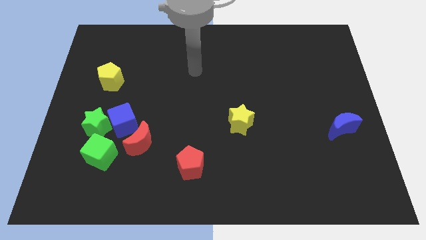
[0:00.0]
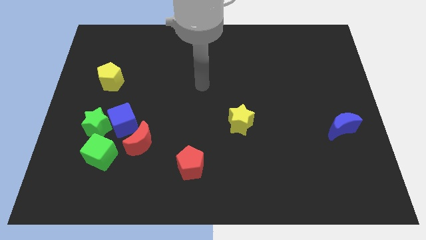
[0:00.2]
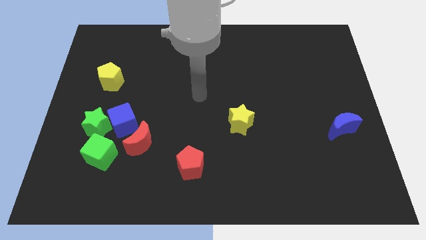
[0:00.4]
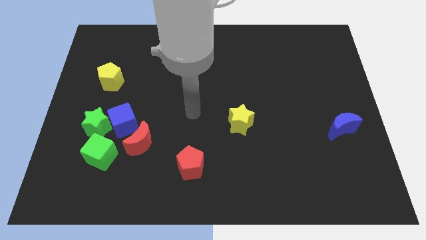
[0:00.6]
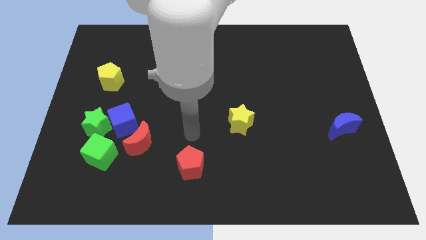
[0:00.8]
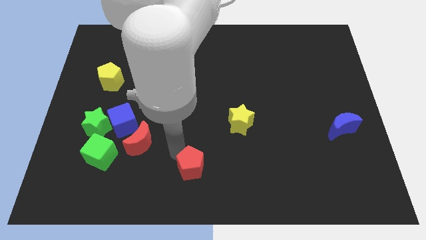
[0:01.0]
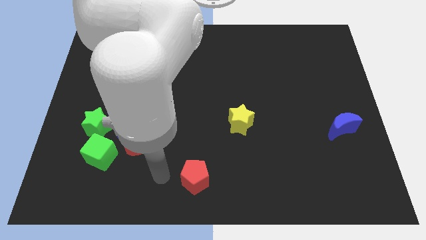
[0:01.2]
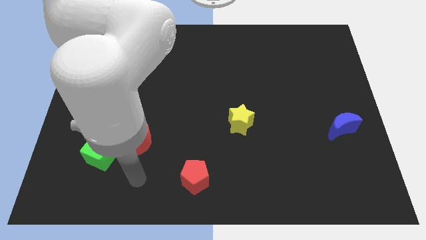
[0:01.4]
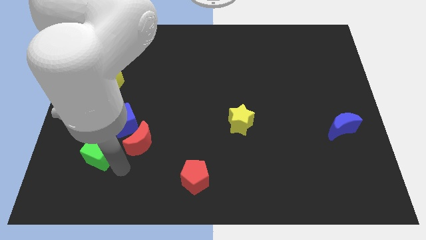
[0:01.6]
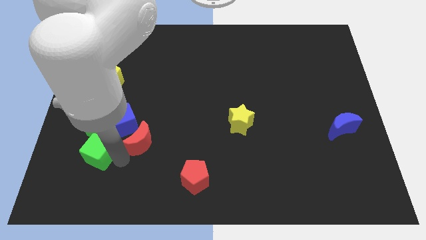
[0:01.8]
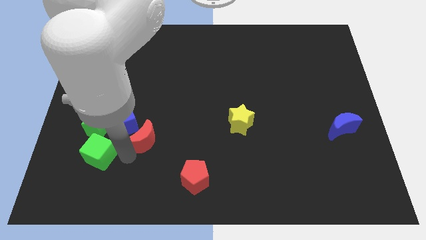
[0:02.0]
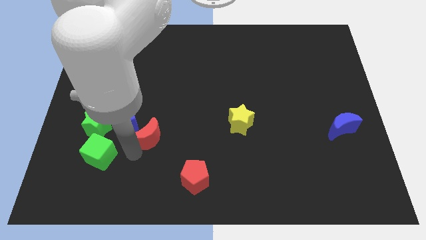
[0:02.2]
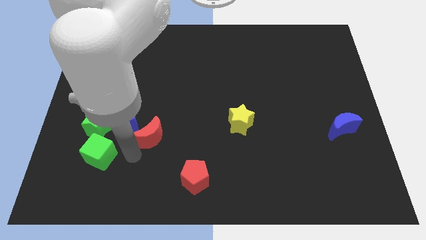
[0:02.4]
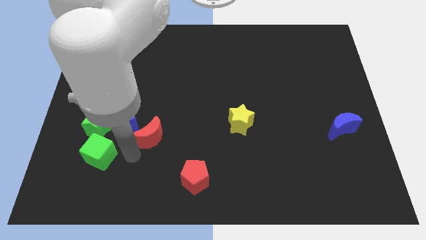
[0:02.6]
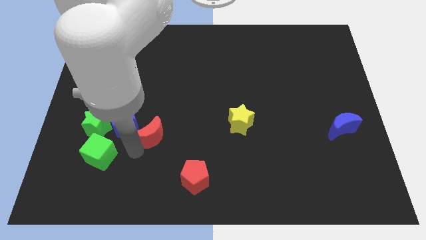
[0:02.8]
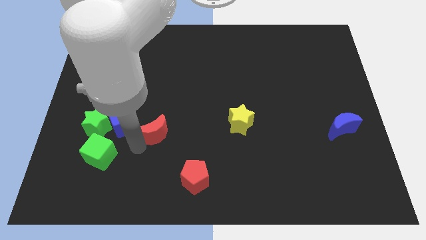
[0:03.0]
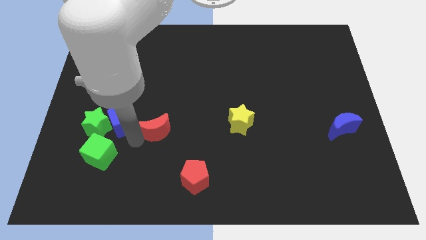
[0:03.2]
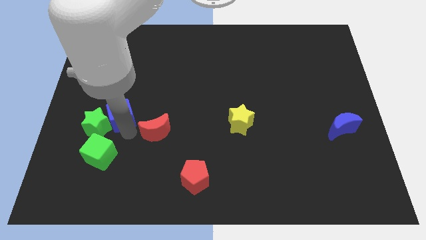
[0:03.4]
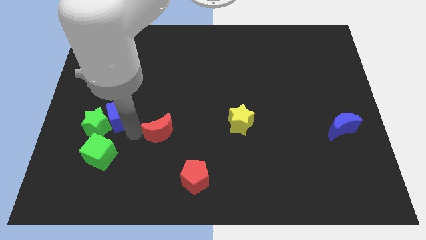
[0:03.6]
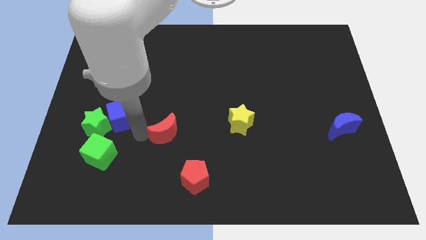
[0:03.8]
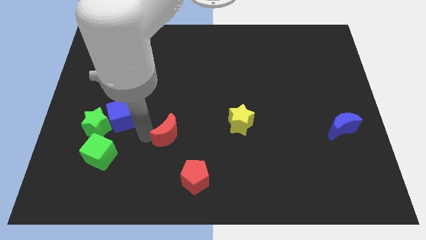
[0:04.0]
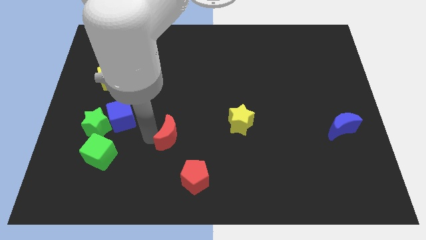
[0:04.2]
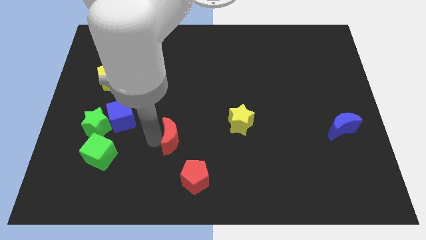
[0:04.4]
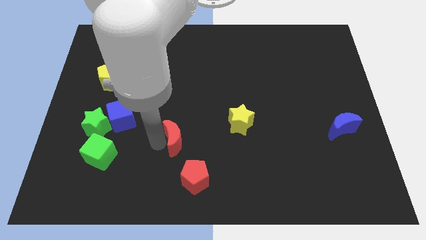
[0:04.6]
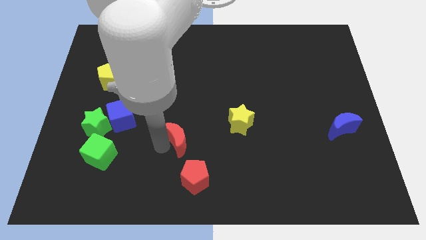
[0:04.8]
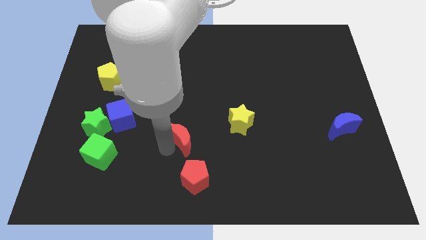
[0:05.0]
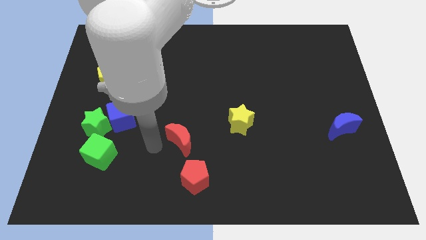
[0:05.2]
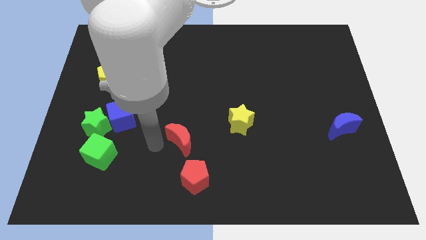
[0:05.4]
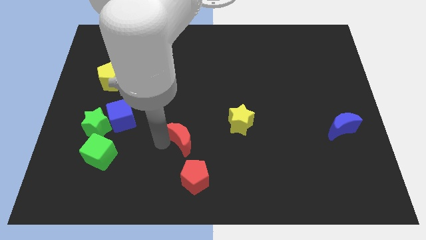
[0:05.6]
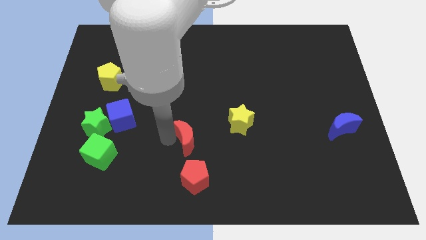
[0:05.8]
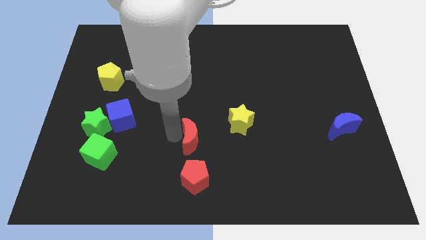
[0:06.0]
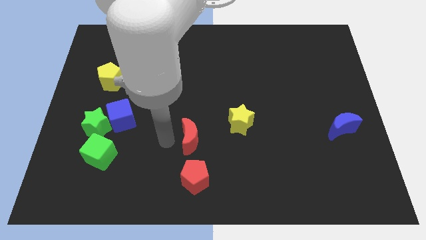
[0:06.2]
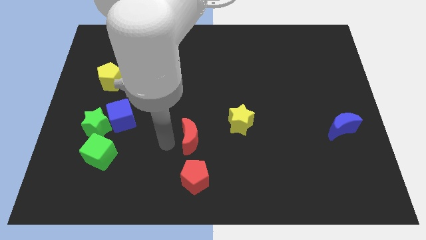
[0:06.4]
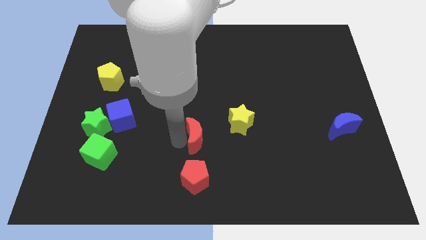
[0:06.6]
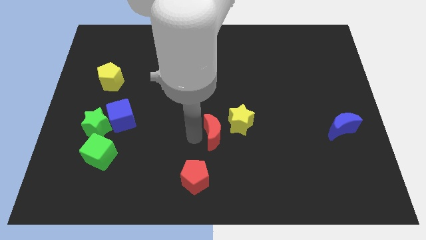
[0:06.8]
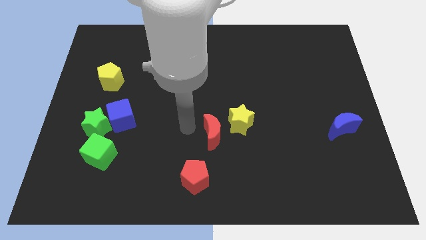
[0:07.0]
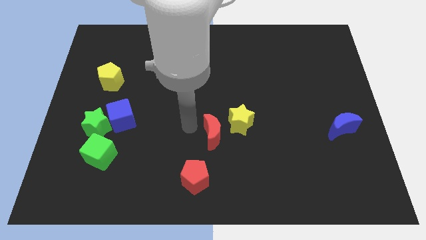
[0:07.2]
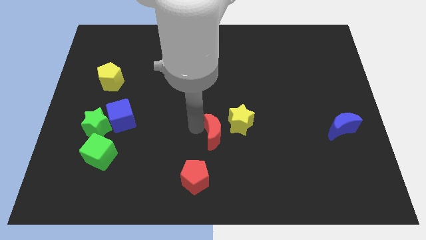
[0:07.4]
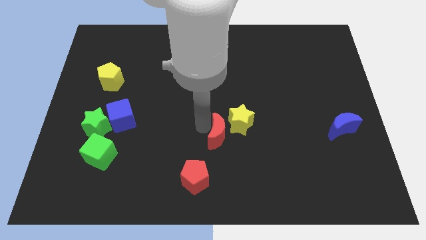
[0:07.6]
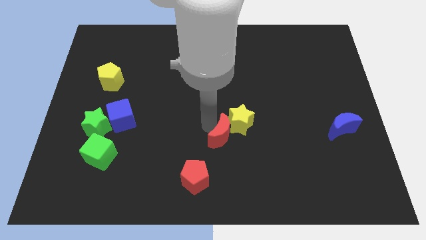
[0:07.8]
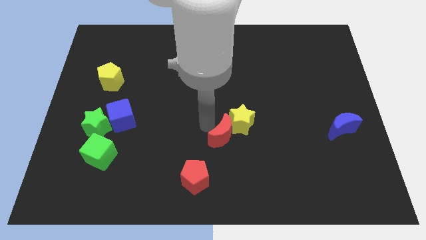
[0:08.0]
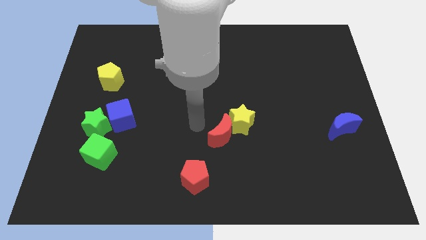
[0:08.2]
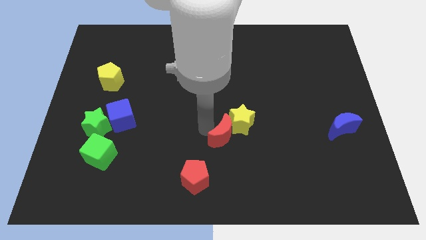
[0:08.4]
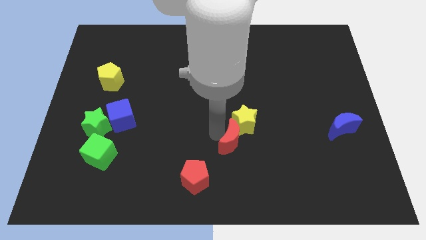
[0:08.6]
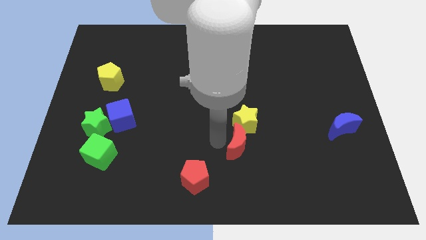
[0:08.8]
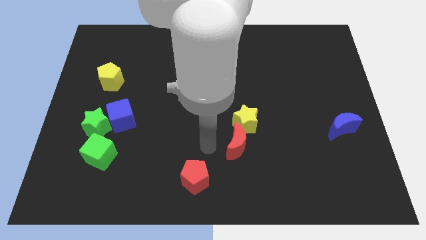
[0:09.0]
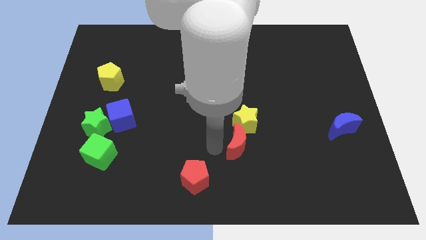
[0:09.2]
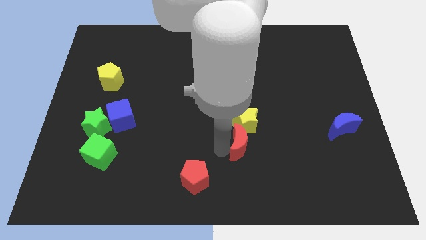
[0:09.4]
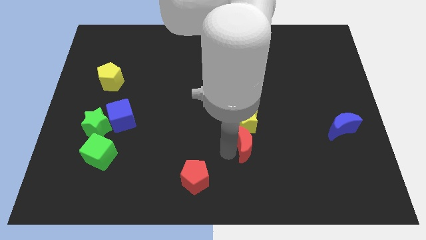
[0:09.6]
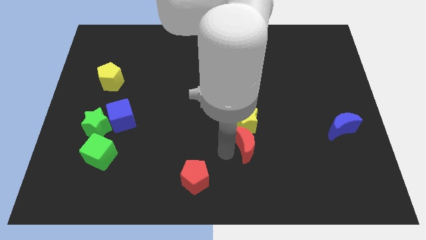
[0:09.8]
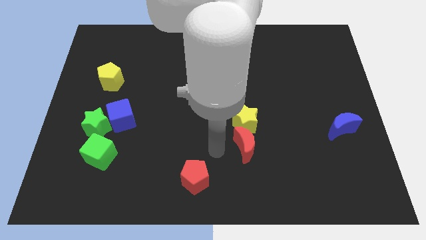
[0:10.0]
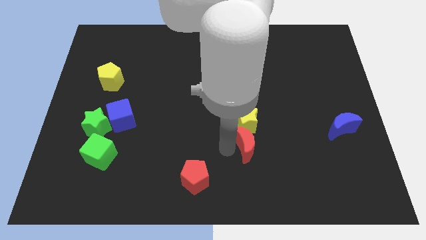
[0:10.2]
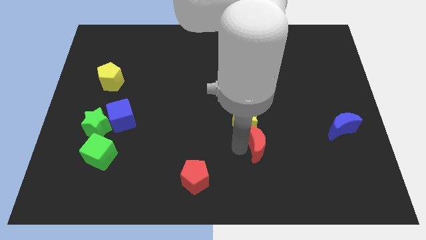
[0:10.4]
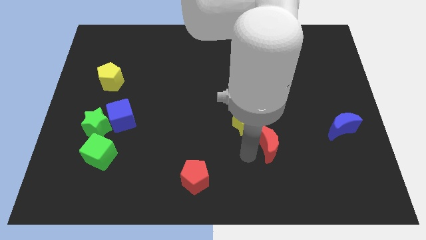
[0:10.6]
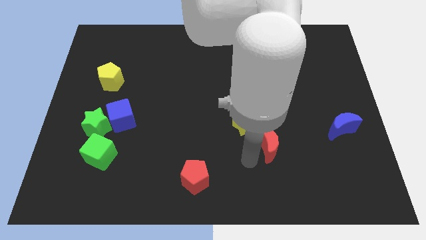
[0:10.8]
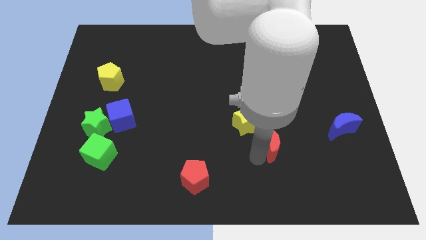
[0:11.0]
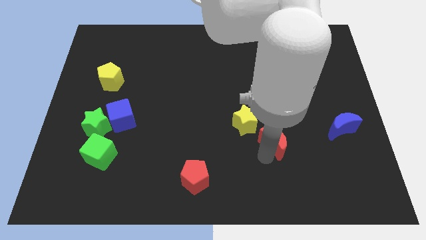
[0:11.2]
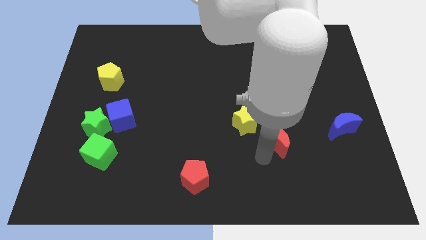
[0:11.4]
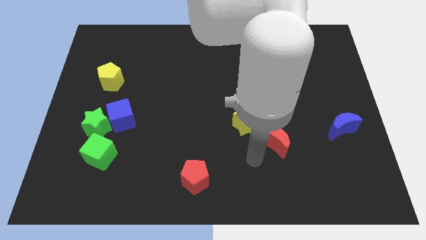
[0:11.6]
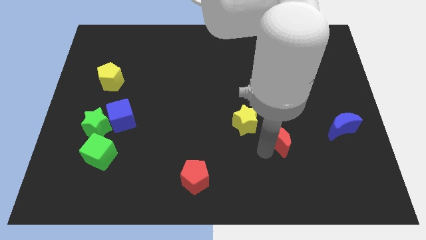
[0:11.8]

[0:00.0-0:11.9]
push the red moon just left of the blue moon

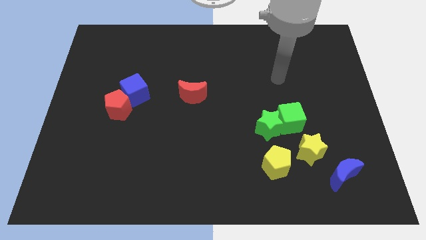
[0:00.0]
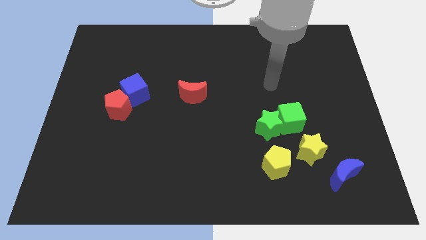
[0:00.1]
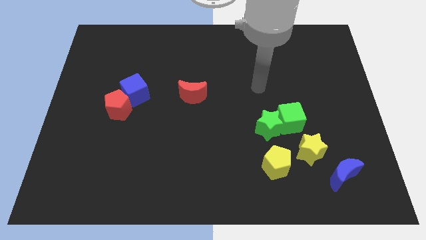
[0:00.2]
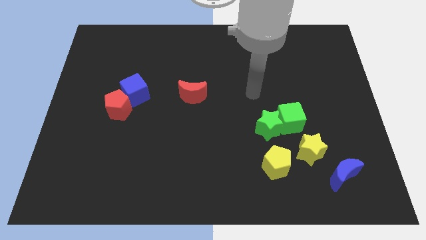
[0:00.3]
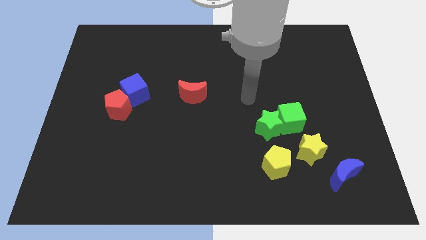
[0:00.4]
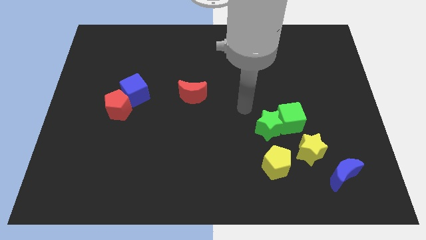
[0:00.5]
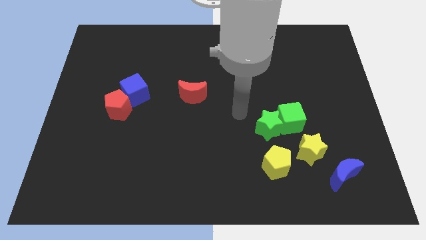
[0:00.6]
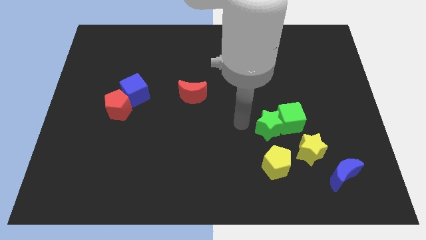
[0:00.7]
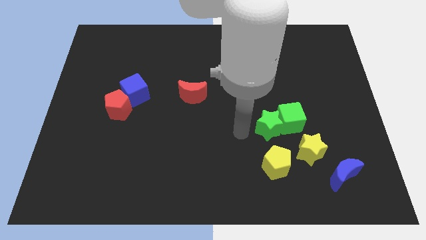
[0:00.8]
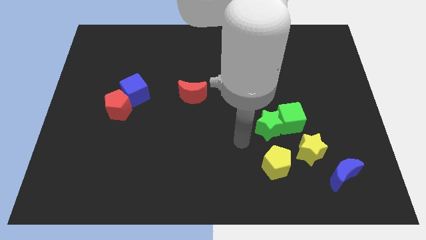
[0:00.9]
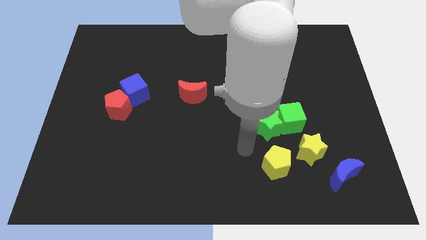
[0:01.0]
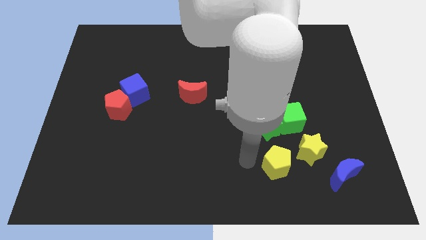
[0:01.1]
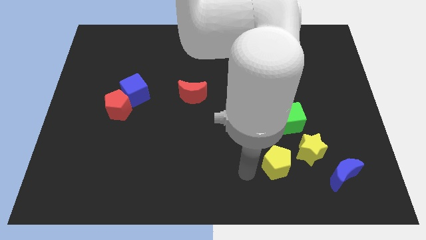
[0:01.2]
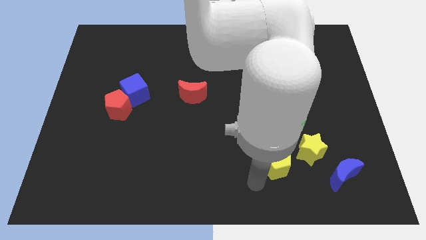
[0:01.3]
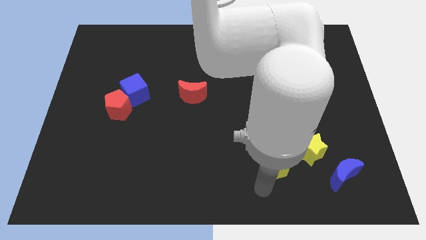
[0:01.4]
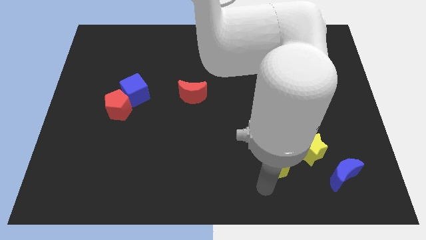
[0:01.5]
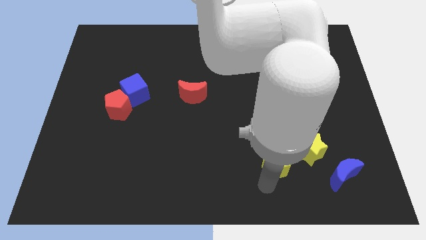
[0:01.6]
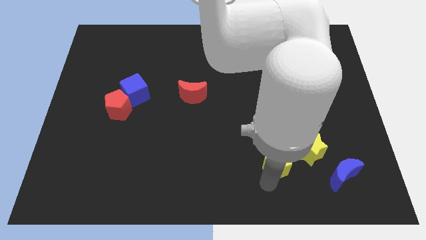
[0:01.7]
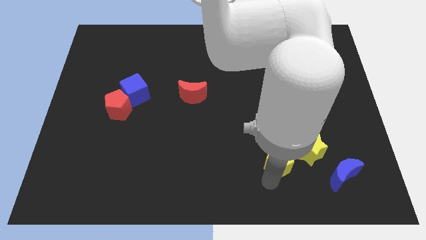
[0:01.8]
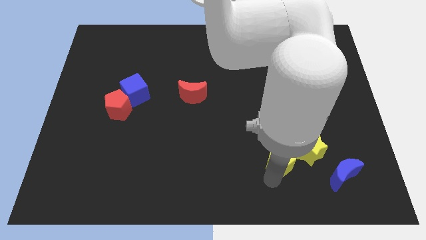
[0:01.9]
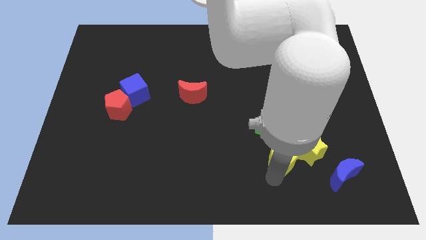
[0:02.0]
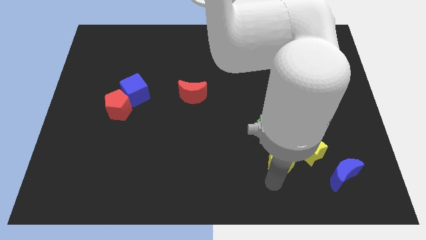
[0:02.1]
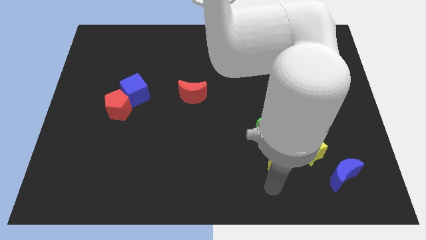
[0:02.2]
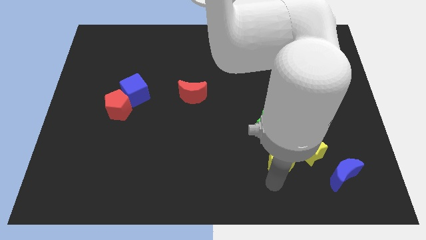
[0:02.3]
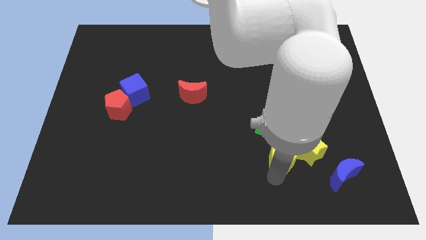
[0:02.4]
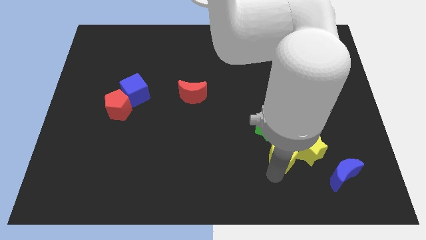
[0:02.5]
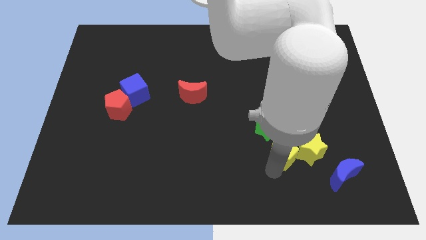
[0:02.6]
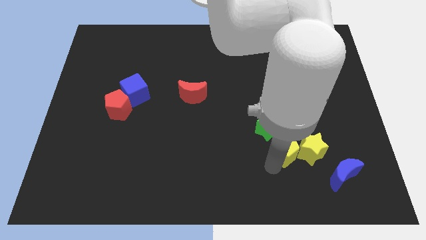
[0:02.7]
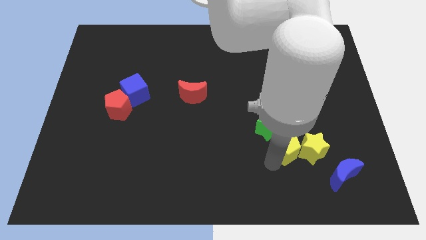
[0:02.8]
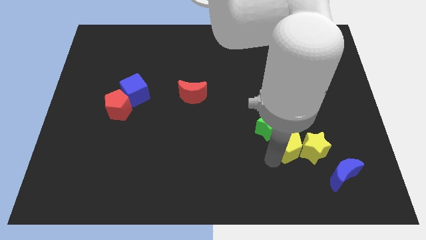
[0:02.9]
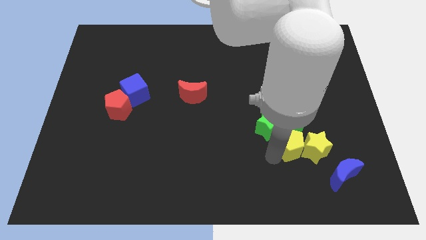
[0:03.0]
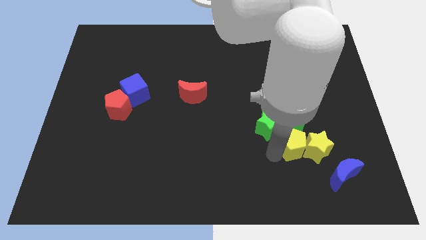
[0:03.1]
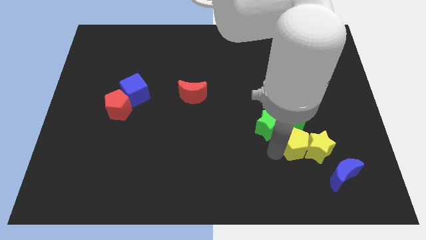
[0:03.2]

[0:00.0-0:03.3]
push the yellow pentagon to the bottom right of the green cube
